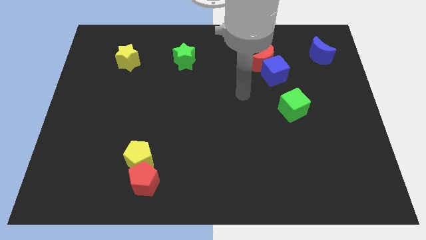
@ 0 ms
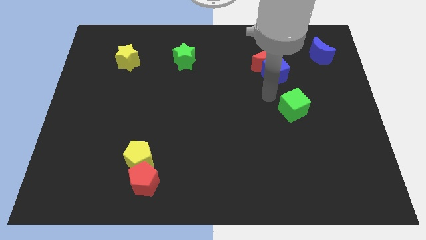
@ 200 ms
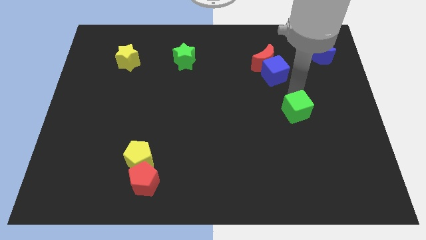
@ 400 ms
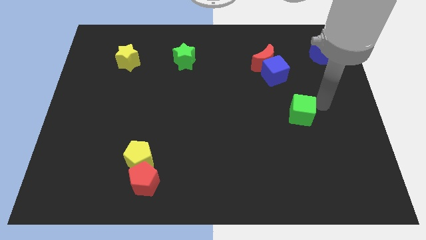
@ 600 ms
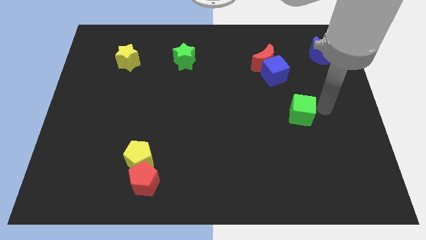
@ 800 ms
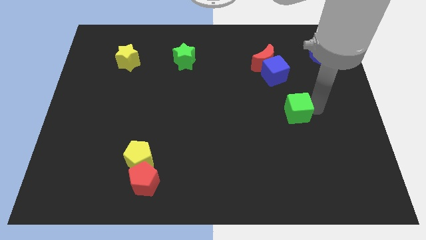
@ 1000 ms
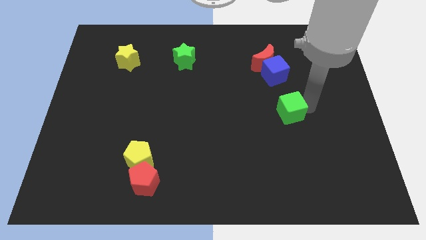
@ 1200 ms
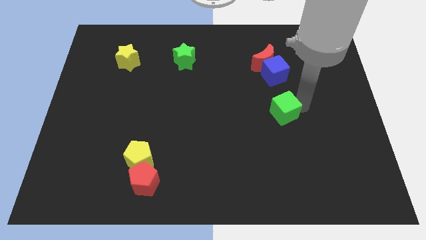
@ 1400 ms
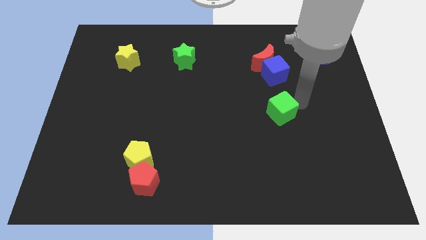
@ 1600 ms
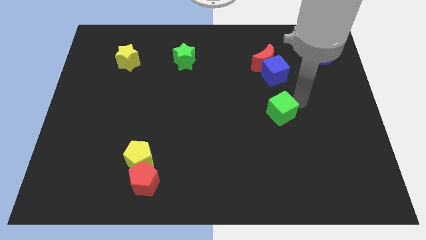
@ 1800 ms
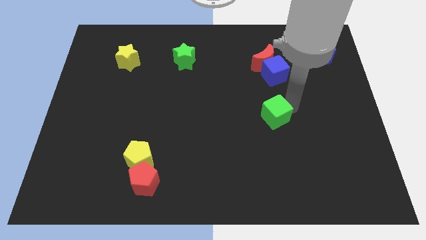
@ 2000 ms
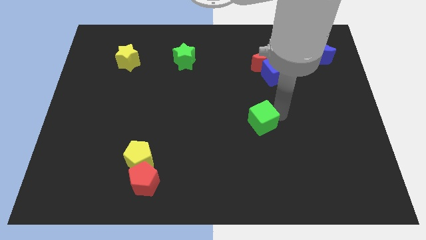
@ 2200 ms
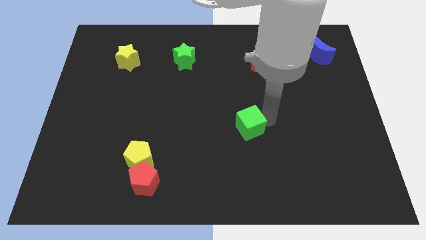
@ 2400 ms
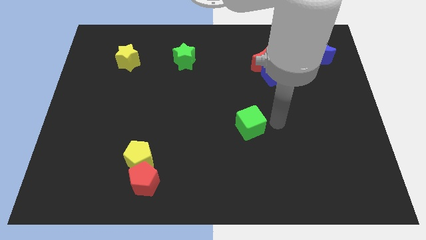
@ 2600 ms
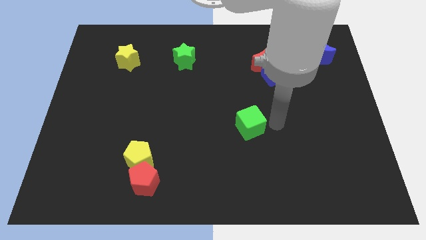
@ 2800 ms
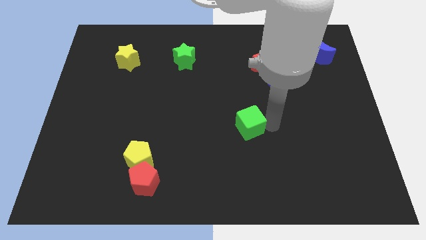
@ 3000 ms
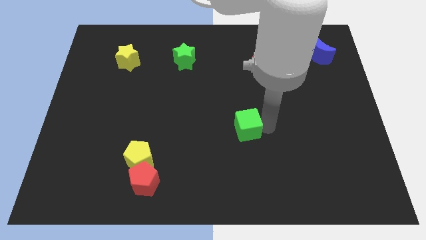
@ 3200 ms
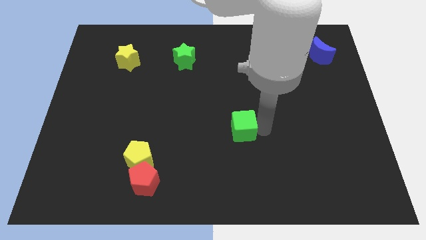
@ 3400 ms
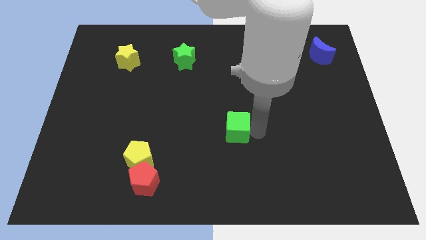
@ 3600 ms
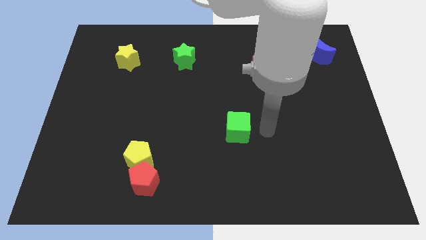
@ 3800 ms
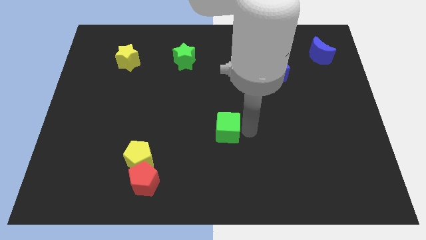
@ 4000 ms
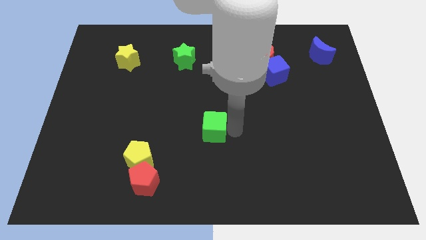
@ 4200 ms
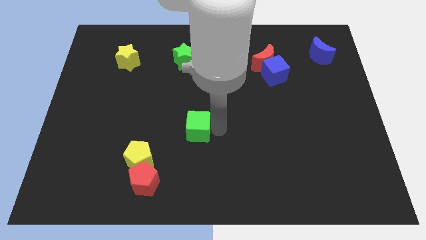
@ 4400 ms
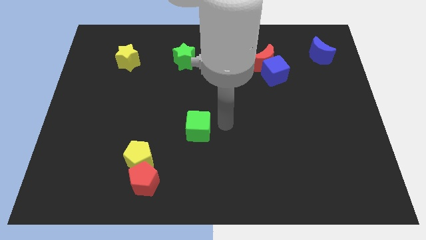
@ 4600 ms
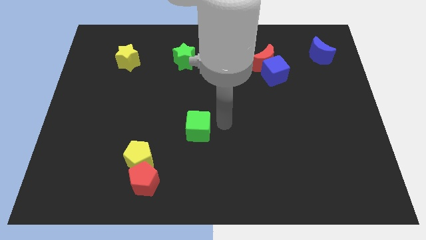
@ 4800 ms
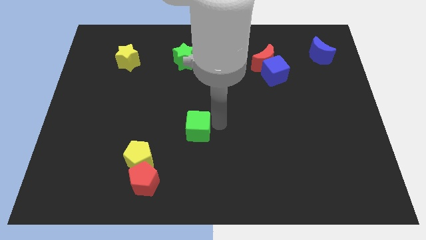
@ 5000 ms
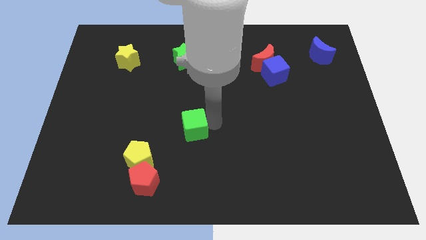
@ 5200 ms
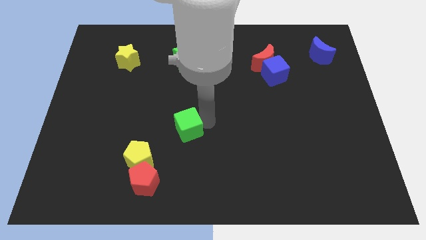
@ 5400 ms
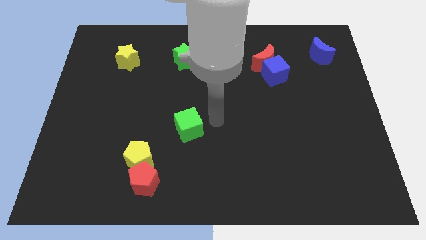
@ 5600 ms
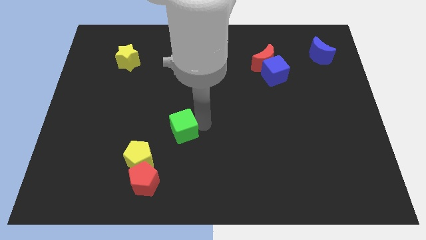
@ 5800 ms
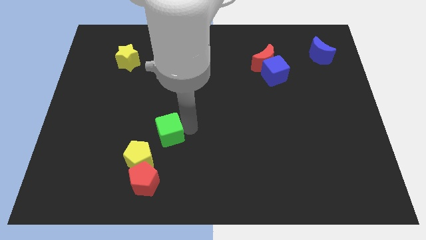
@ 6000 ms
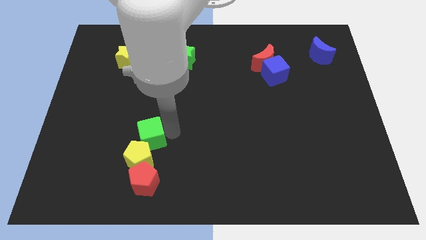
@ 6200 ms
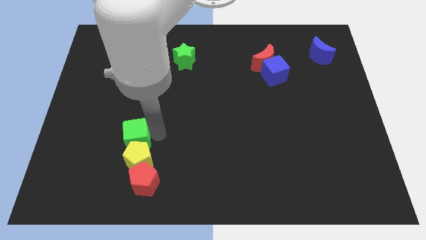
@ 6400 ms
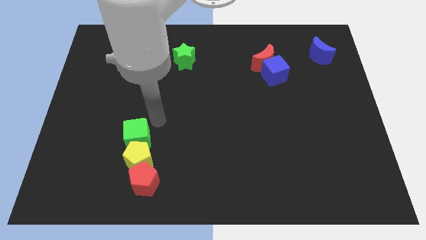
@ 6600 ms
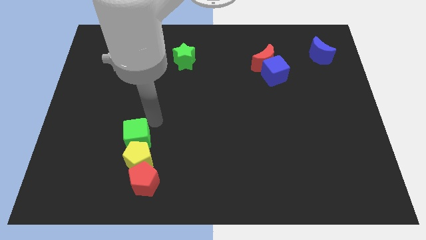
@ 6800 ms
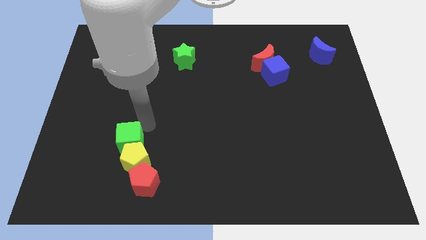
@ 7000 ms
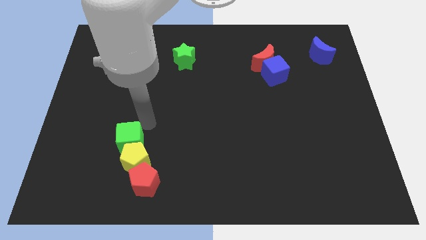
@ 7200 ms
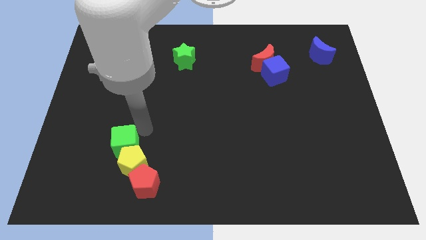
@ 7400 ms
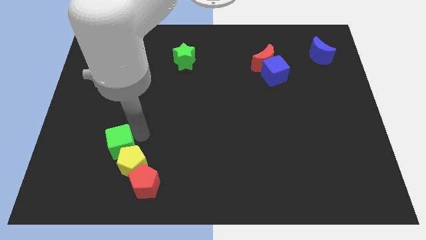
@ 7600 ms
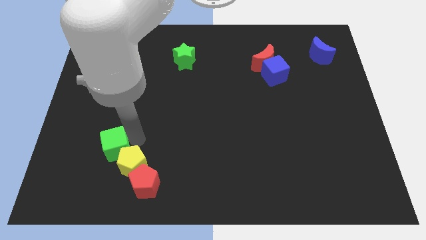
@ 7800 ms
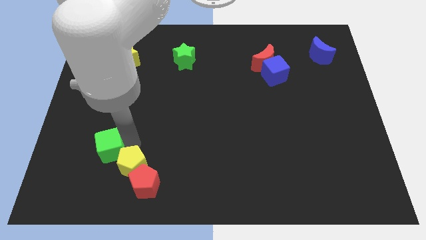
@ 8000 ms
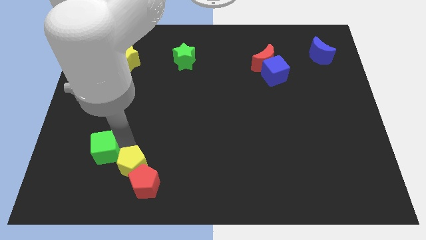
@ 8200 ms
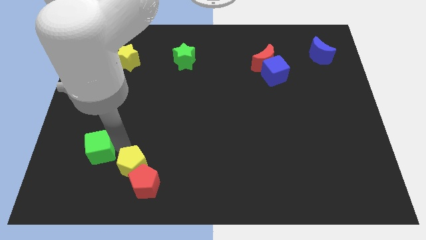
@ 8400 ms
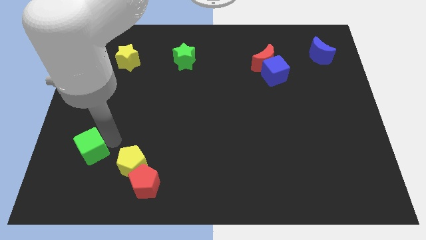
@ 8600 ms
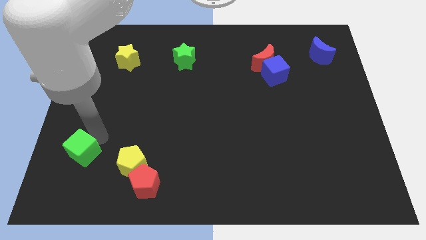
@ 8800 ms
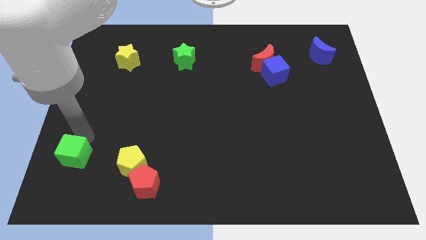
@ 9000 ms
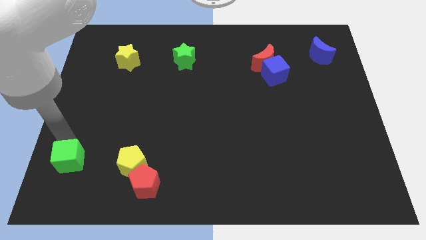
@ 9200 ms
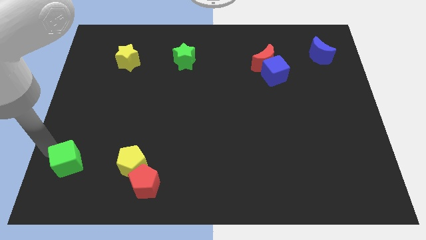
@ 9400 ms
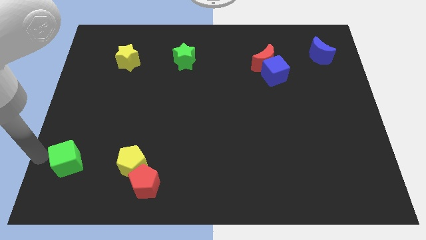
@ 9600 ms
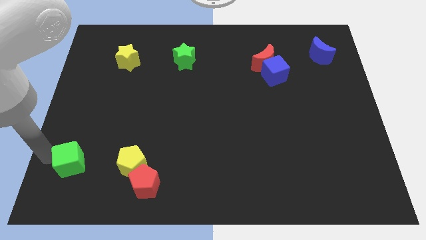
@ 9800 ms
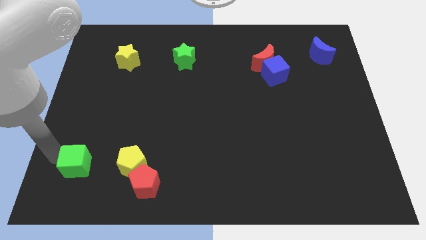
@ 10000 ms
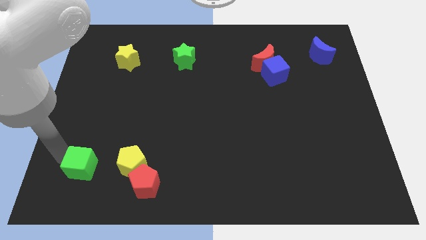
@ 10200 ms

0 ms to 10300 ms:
push the green cube just left of the red pentagon

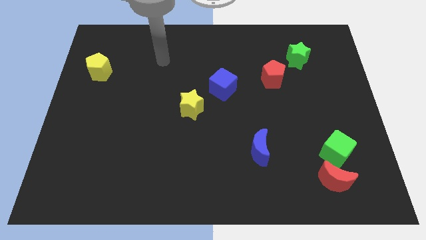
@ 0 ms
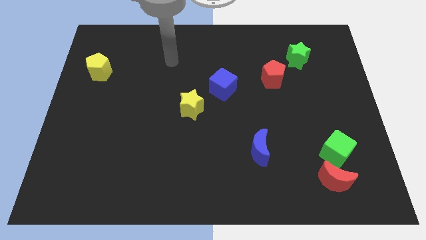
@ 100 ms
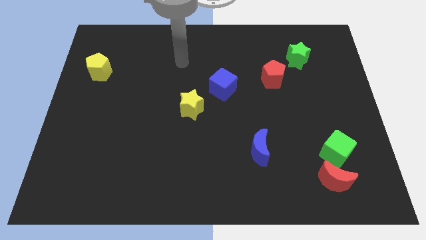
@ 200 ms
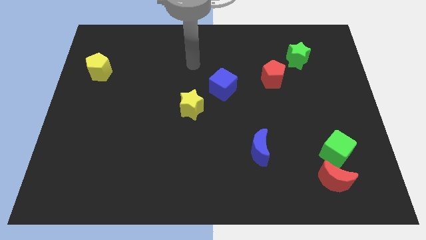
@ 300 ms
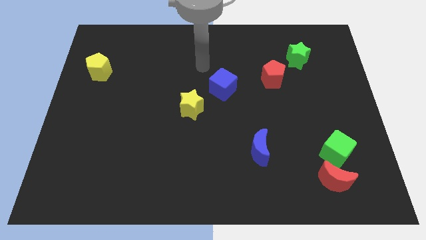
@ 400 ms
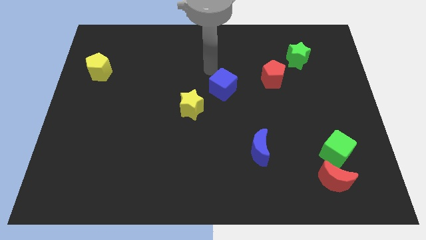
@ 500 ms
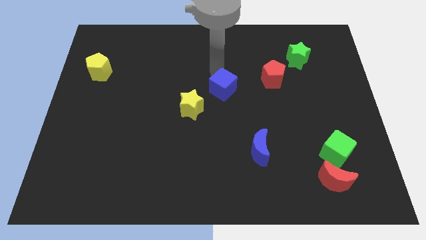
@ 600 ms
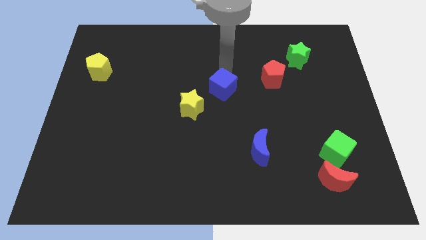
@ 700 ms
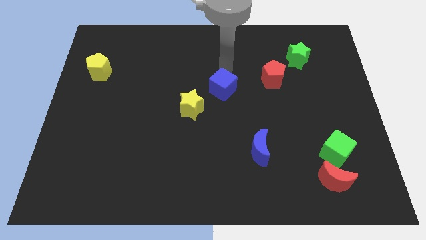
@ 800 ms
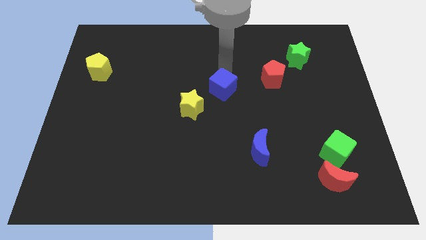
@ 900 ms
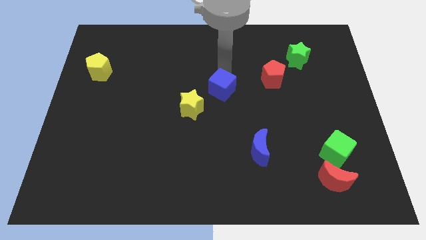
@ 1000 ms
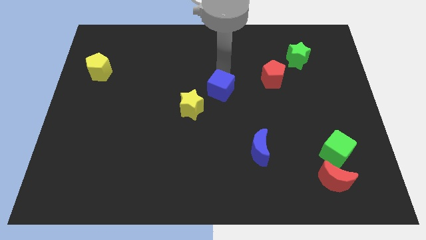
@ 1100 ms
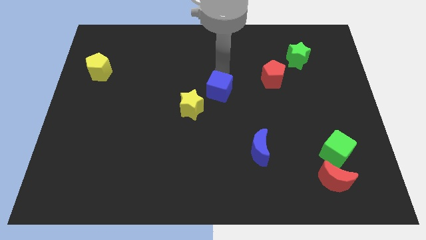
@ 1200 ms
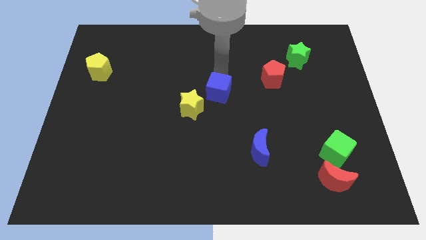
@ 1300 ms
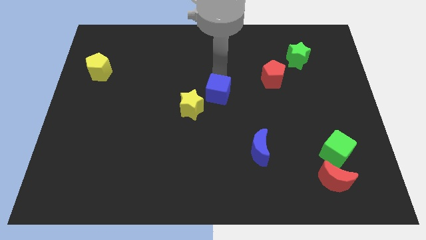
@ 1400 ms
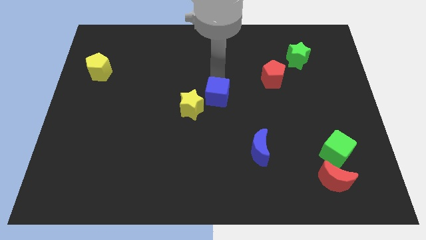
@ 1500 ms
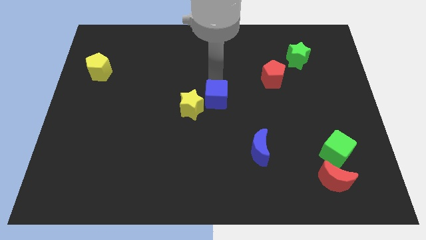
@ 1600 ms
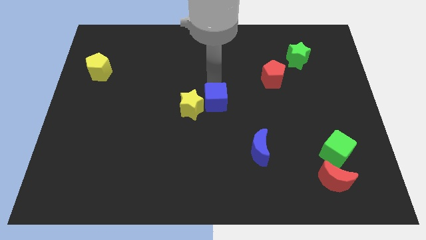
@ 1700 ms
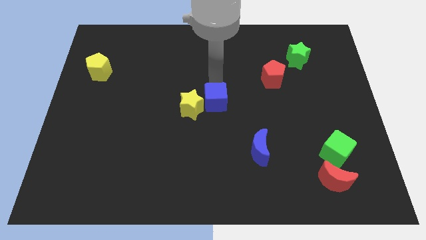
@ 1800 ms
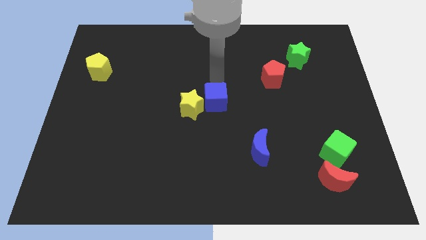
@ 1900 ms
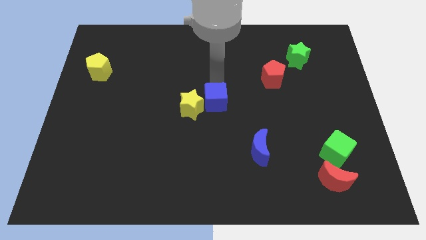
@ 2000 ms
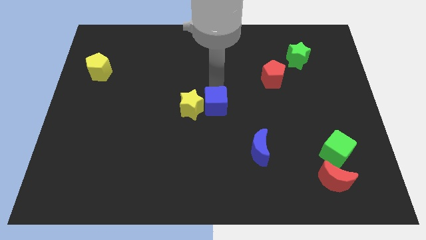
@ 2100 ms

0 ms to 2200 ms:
move the blue cube to the bottom right of the yellow star
